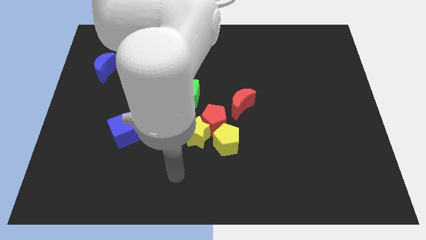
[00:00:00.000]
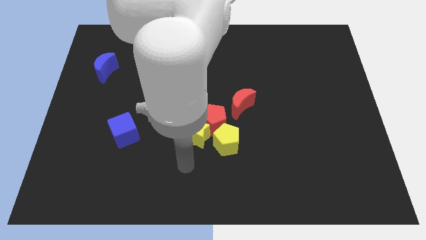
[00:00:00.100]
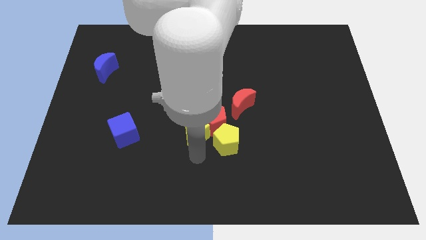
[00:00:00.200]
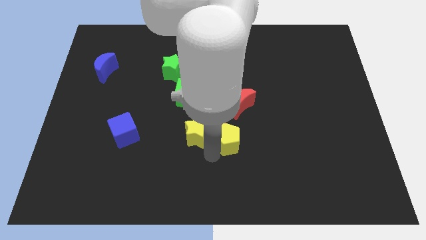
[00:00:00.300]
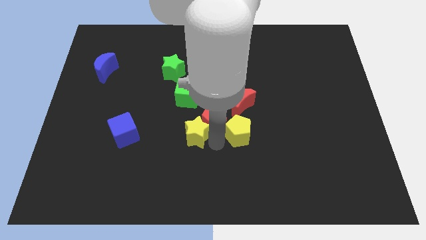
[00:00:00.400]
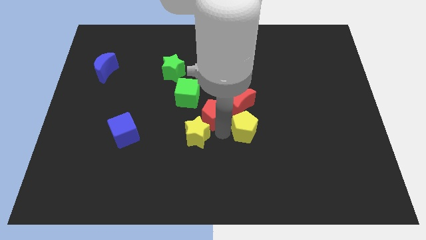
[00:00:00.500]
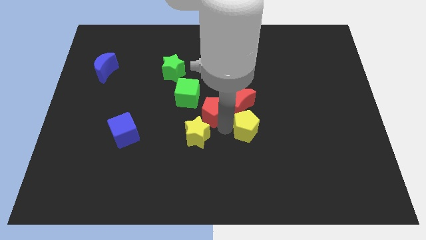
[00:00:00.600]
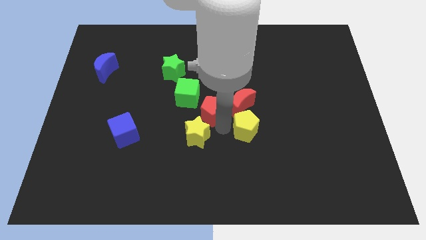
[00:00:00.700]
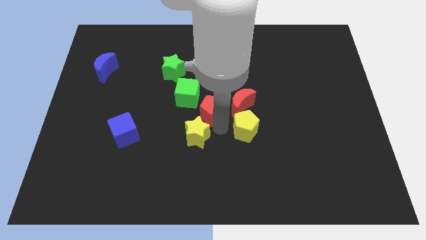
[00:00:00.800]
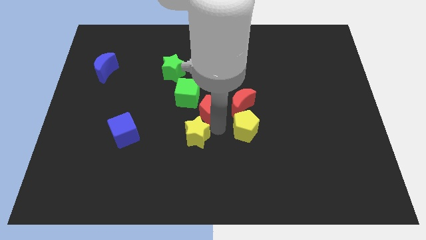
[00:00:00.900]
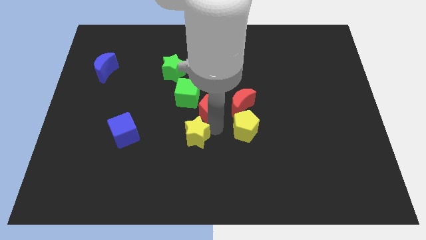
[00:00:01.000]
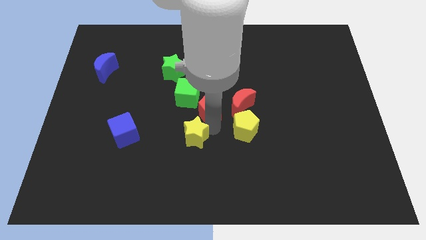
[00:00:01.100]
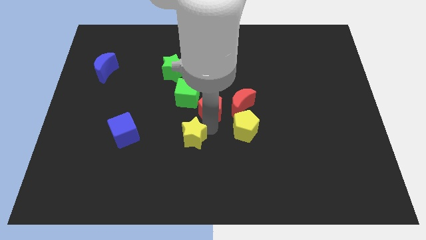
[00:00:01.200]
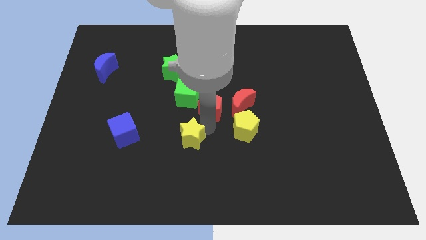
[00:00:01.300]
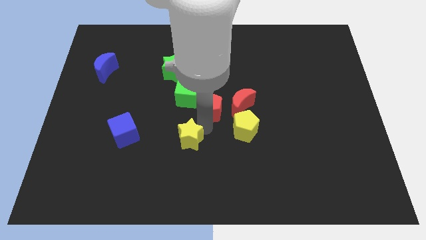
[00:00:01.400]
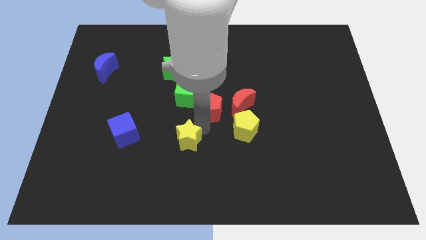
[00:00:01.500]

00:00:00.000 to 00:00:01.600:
separate the yellow star from the red pentagon and yellow pentagon

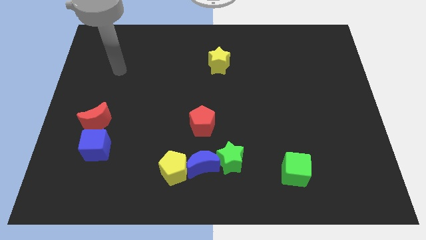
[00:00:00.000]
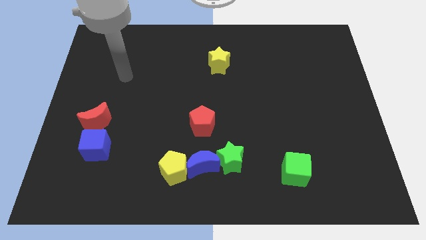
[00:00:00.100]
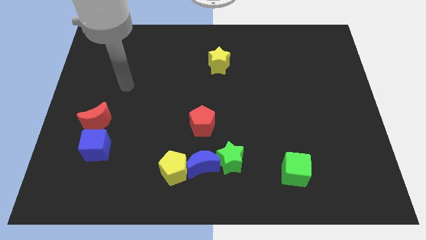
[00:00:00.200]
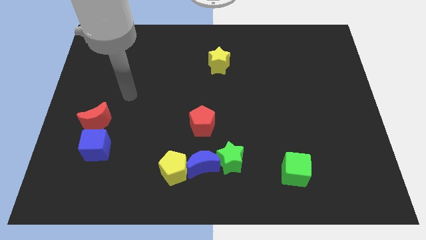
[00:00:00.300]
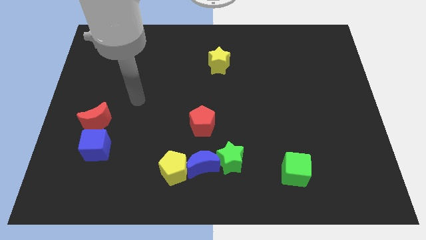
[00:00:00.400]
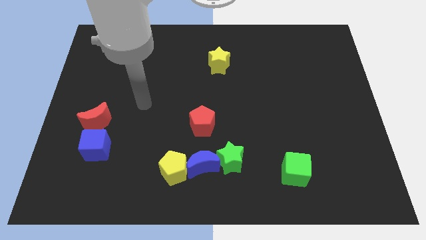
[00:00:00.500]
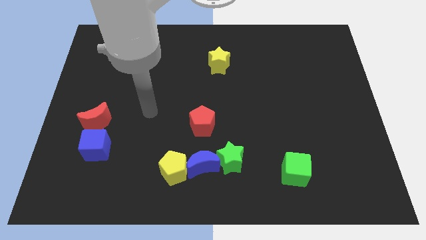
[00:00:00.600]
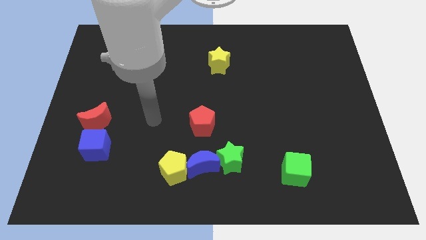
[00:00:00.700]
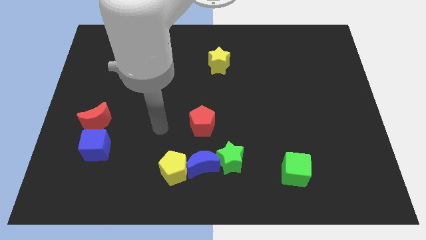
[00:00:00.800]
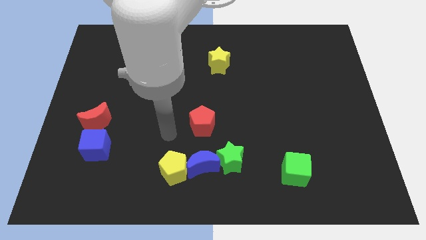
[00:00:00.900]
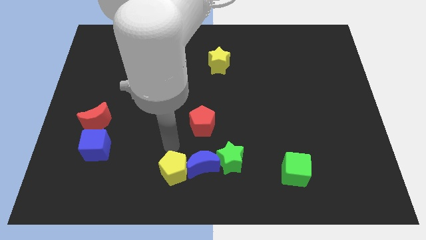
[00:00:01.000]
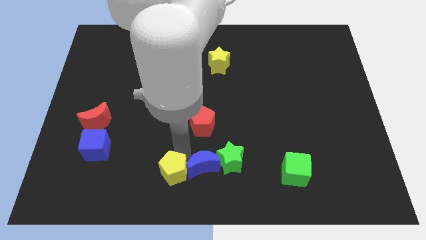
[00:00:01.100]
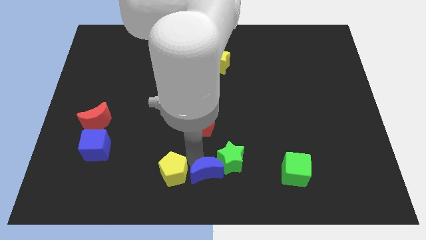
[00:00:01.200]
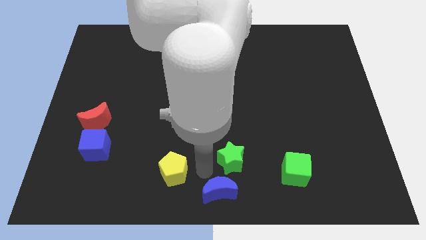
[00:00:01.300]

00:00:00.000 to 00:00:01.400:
separate the yellow pentagon from the blue moon

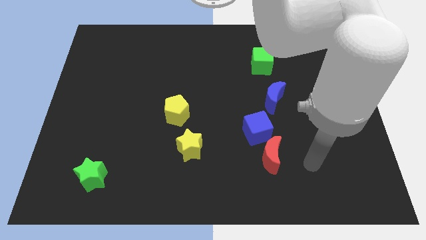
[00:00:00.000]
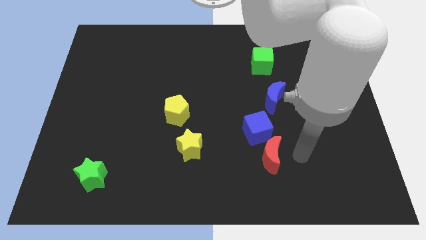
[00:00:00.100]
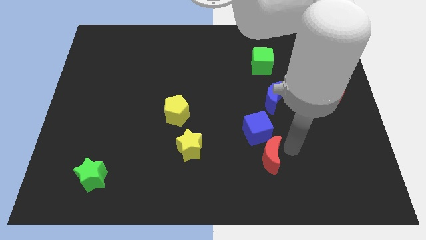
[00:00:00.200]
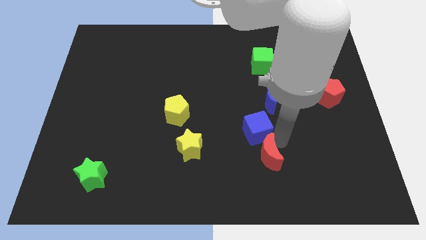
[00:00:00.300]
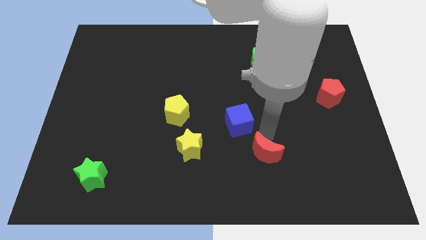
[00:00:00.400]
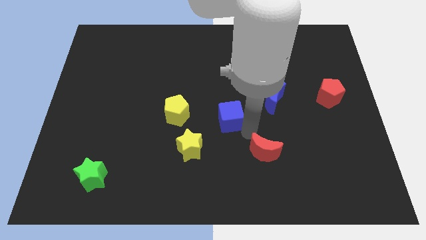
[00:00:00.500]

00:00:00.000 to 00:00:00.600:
pull the red moon apart from the blue cube

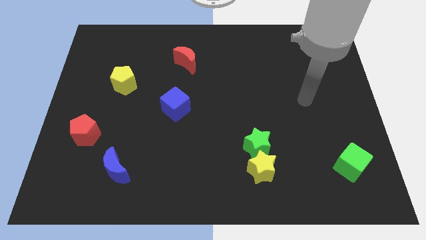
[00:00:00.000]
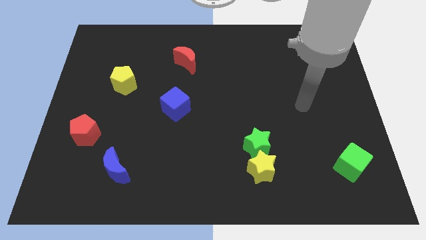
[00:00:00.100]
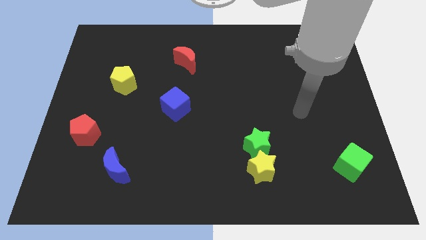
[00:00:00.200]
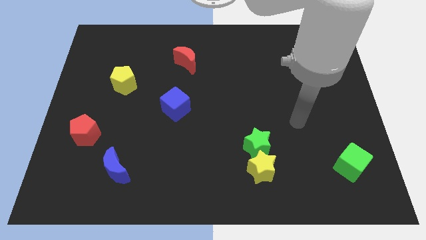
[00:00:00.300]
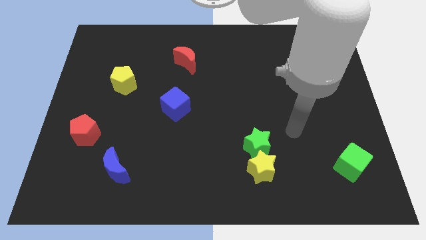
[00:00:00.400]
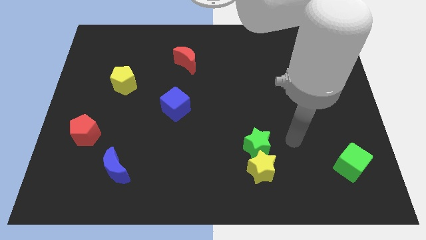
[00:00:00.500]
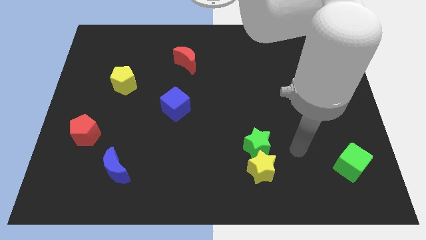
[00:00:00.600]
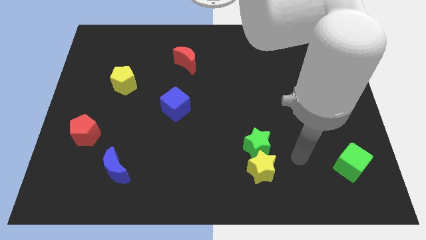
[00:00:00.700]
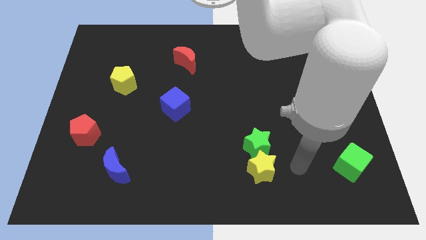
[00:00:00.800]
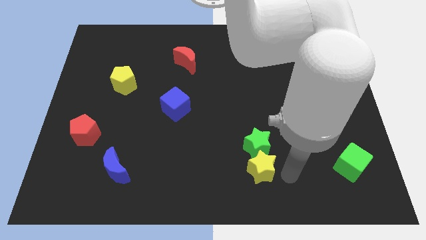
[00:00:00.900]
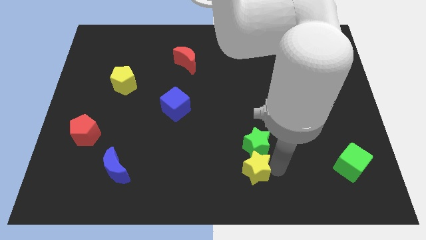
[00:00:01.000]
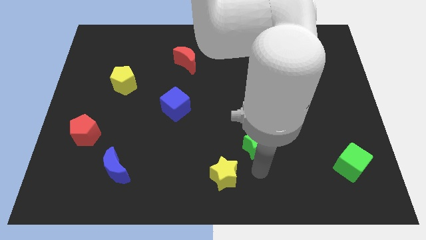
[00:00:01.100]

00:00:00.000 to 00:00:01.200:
pull the green star apart from the yellow star

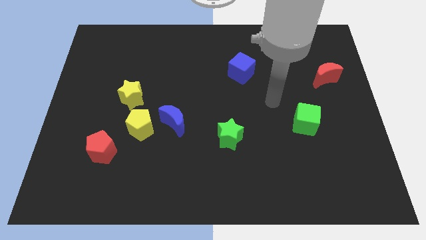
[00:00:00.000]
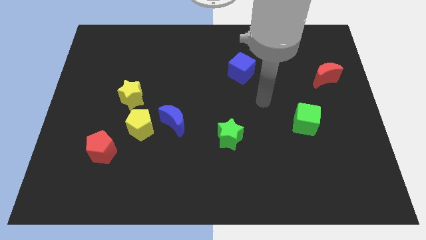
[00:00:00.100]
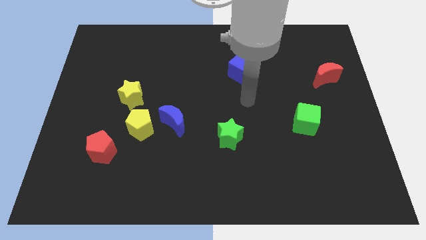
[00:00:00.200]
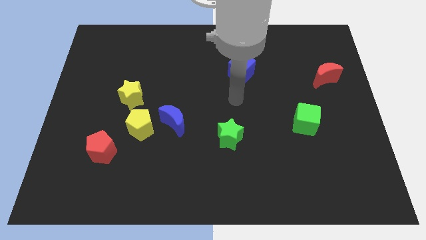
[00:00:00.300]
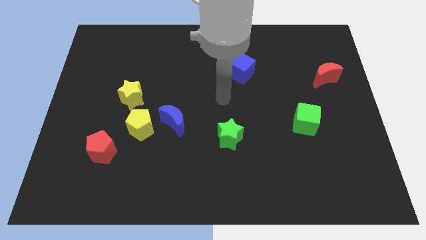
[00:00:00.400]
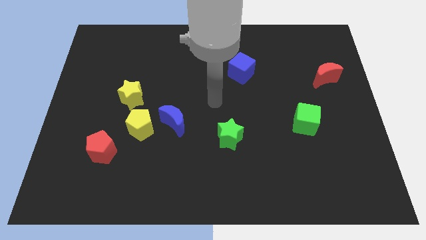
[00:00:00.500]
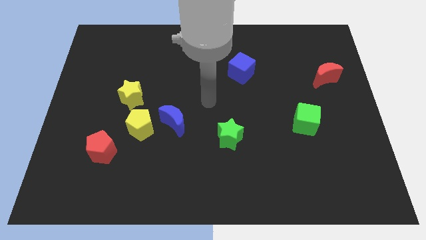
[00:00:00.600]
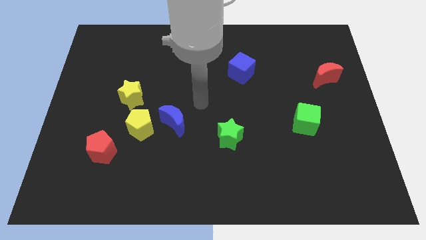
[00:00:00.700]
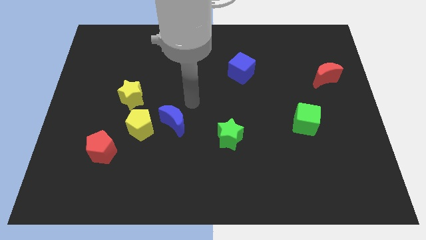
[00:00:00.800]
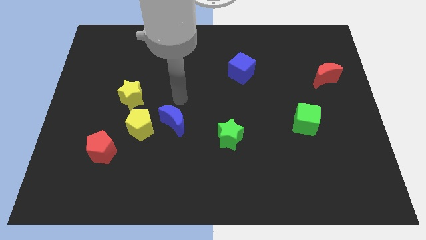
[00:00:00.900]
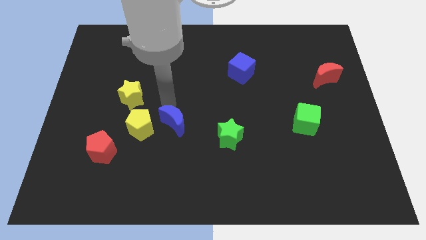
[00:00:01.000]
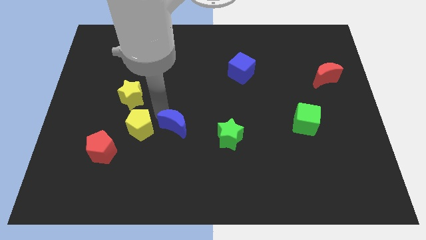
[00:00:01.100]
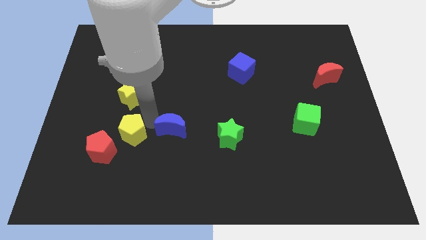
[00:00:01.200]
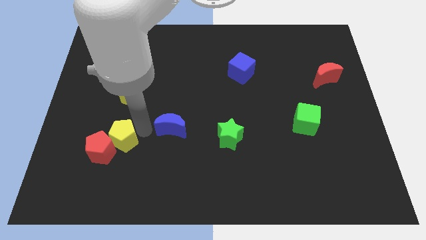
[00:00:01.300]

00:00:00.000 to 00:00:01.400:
move the blue moon away from the yellow pentagon

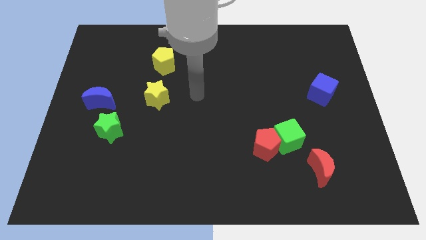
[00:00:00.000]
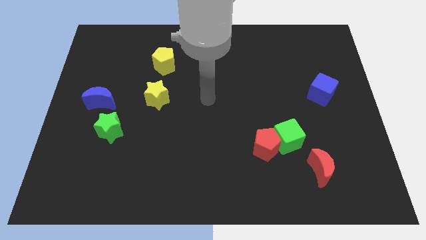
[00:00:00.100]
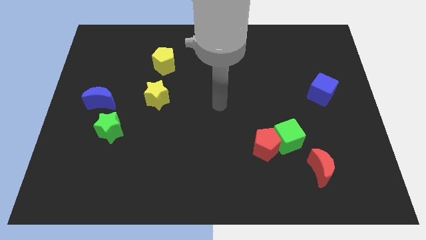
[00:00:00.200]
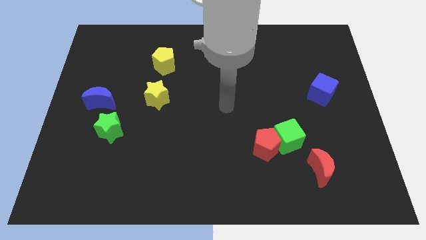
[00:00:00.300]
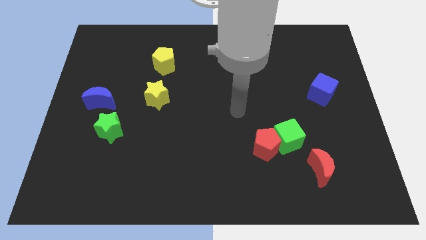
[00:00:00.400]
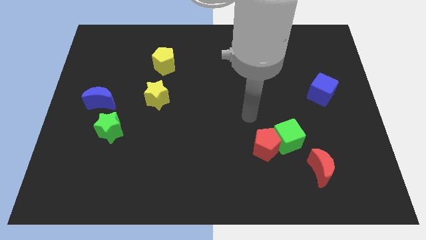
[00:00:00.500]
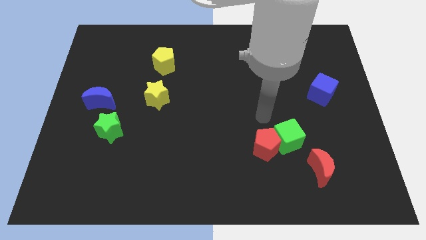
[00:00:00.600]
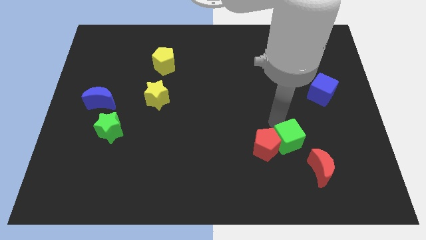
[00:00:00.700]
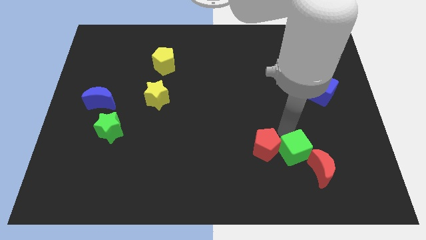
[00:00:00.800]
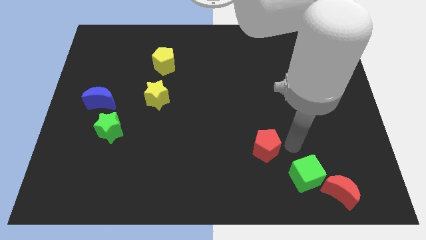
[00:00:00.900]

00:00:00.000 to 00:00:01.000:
move the red pentagon away from the green cube

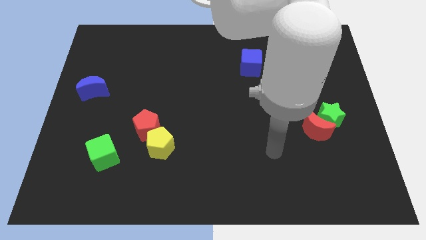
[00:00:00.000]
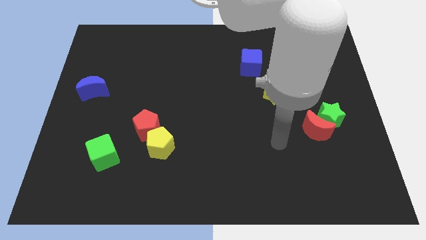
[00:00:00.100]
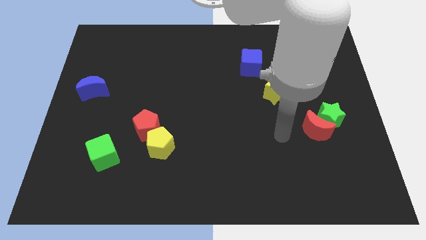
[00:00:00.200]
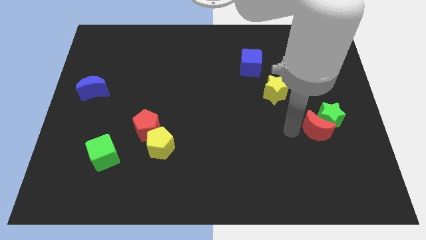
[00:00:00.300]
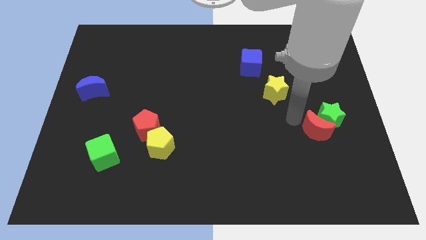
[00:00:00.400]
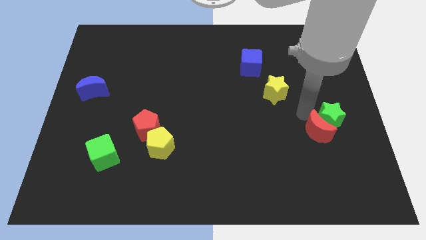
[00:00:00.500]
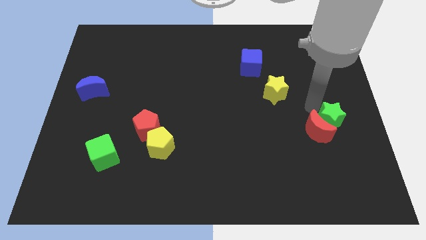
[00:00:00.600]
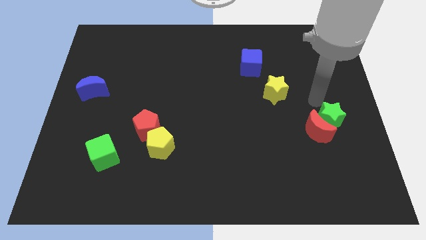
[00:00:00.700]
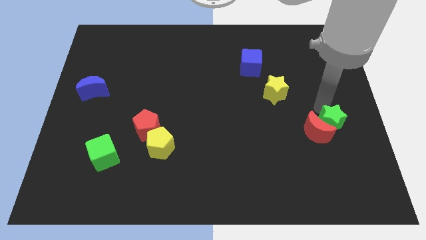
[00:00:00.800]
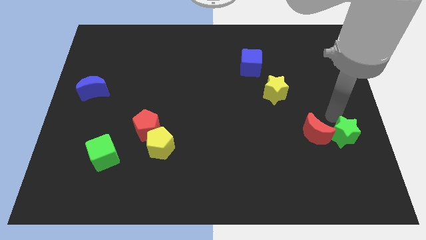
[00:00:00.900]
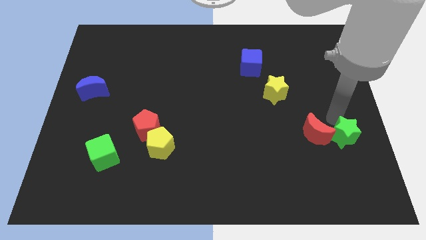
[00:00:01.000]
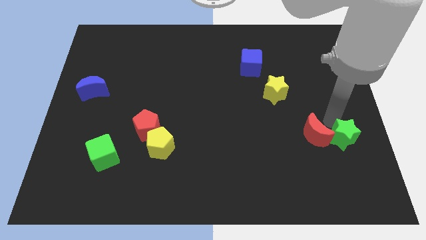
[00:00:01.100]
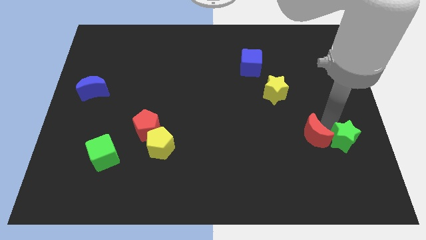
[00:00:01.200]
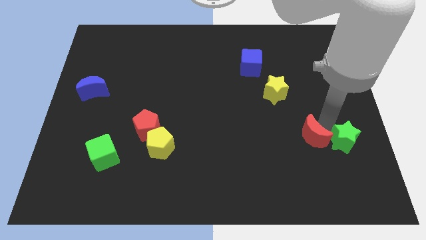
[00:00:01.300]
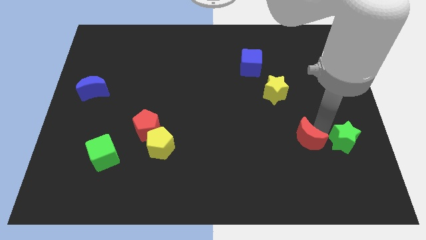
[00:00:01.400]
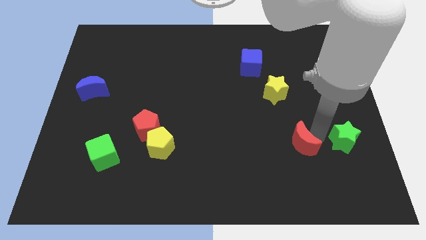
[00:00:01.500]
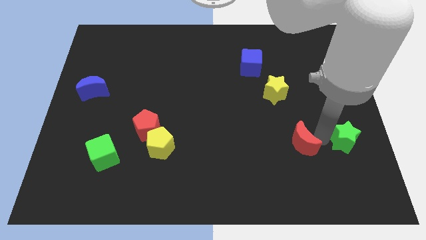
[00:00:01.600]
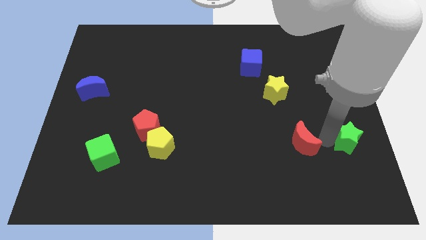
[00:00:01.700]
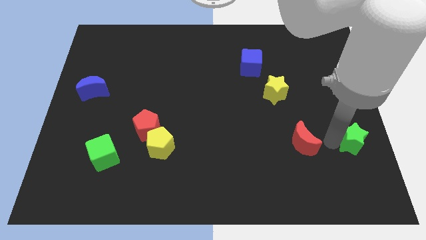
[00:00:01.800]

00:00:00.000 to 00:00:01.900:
move the red moon away from the green star
